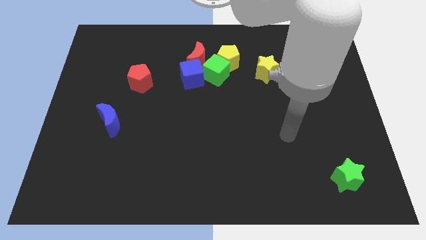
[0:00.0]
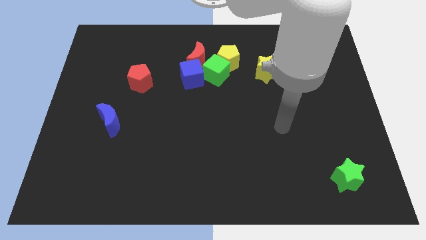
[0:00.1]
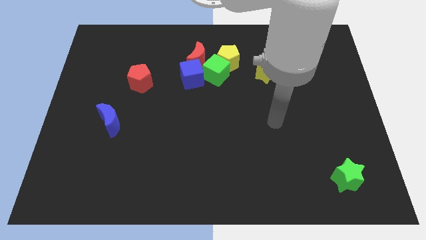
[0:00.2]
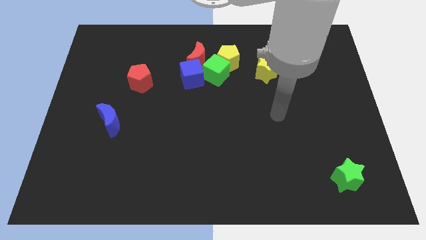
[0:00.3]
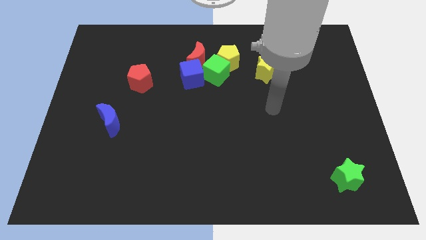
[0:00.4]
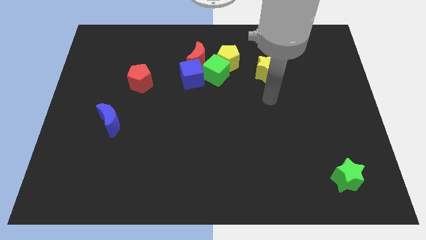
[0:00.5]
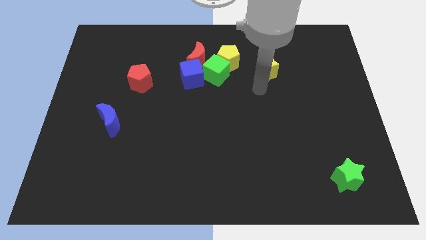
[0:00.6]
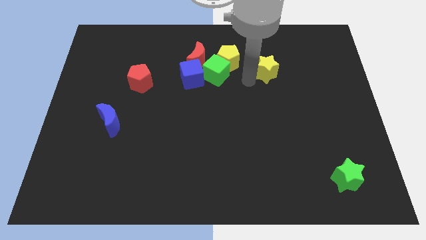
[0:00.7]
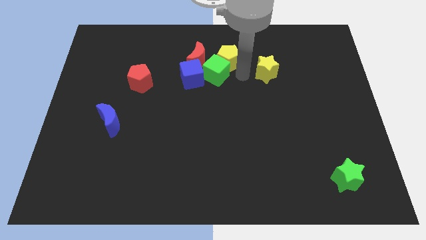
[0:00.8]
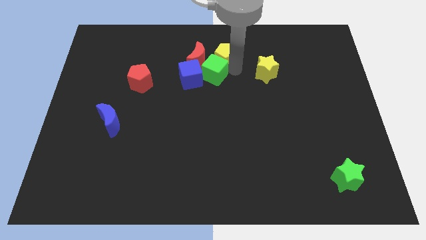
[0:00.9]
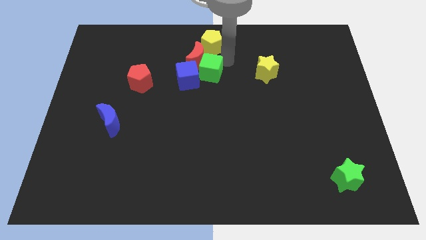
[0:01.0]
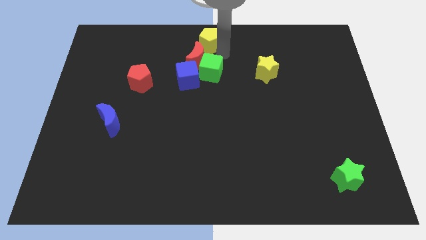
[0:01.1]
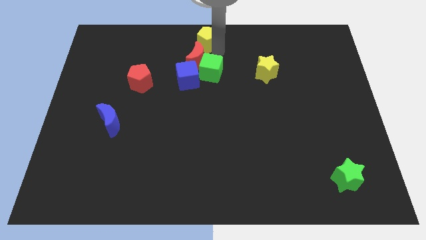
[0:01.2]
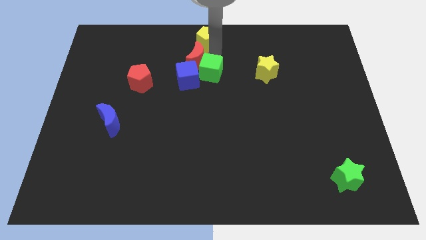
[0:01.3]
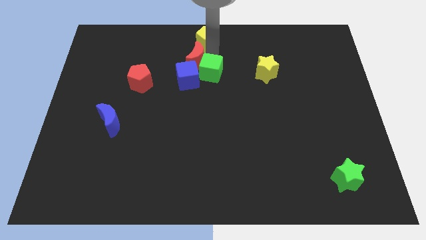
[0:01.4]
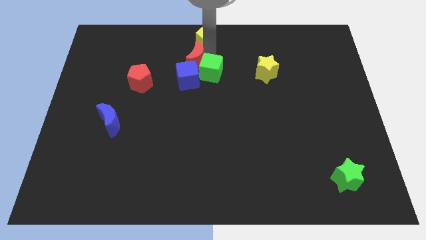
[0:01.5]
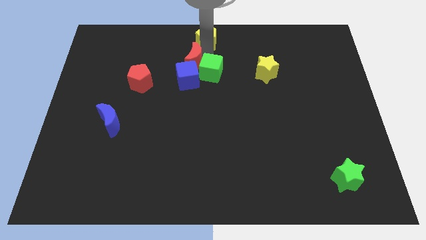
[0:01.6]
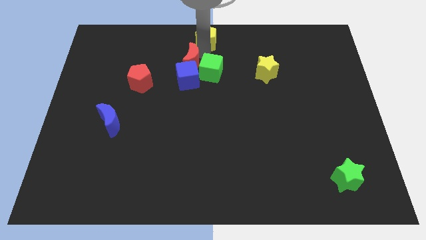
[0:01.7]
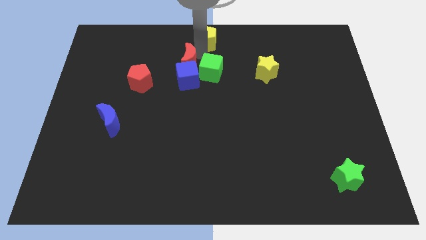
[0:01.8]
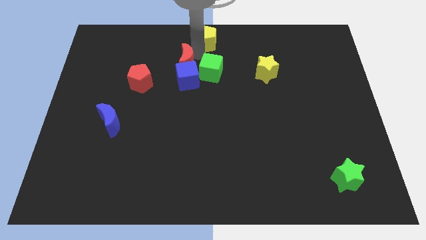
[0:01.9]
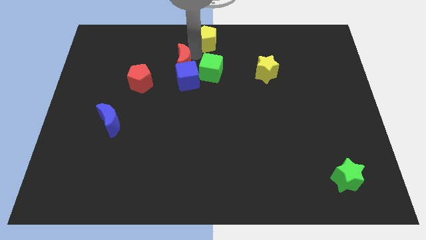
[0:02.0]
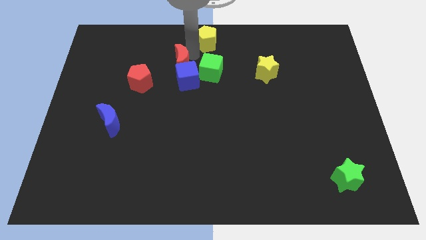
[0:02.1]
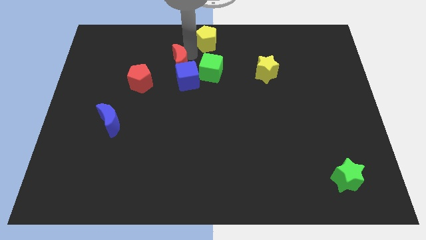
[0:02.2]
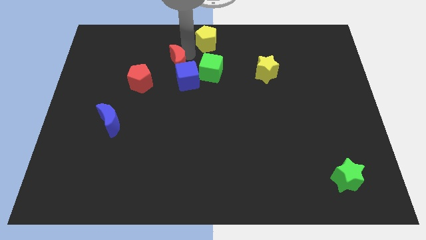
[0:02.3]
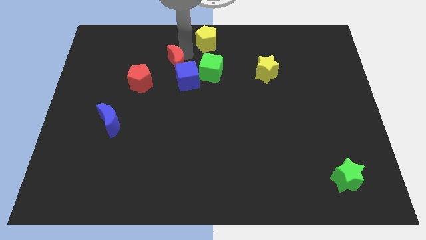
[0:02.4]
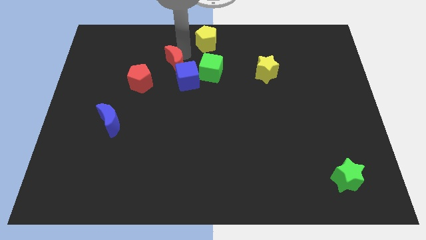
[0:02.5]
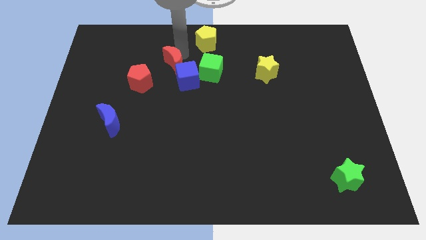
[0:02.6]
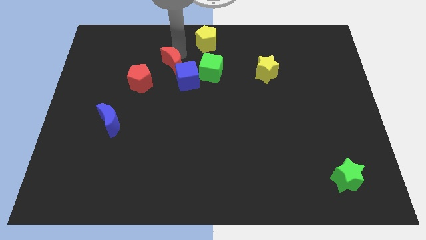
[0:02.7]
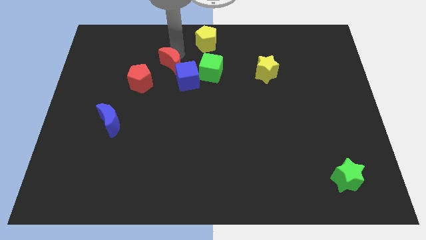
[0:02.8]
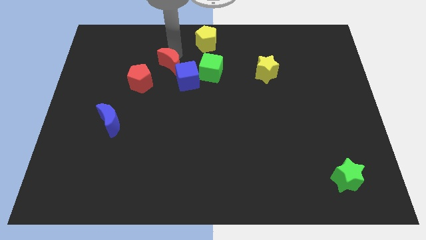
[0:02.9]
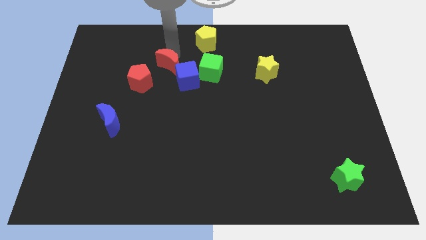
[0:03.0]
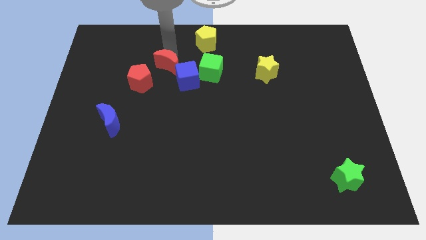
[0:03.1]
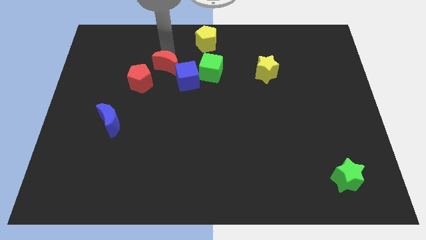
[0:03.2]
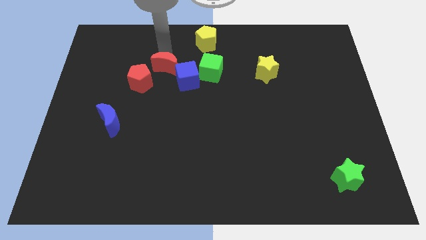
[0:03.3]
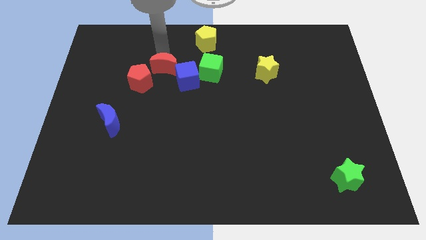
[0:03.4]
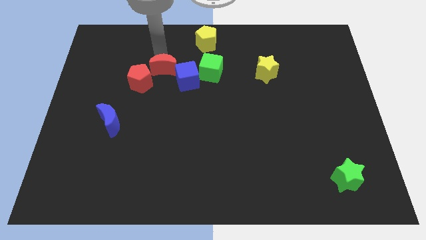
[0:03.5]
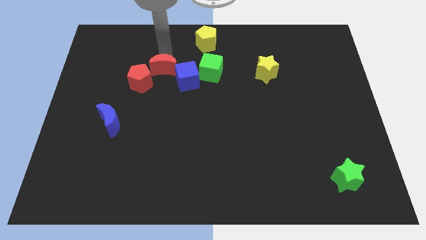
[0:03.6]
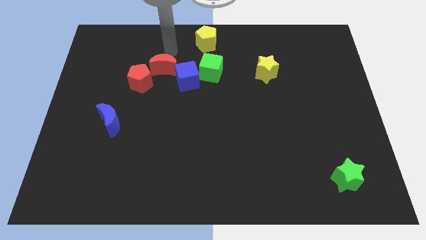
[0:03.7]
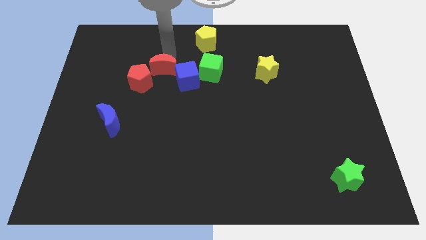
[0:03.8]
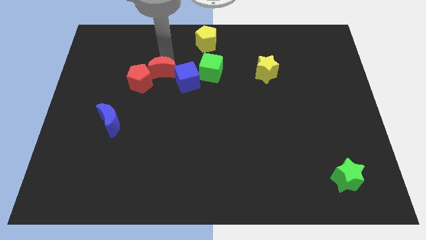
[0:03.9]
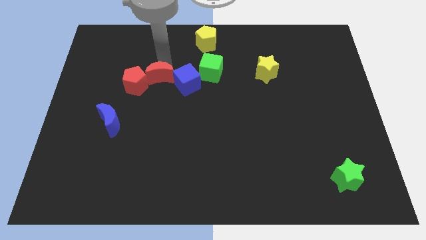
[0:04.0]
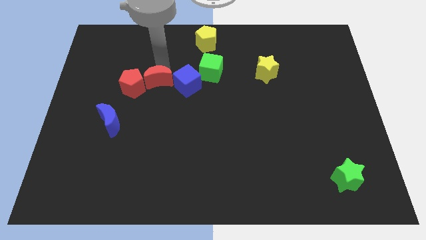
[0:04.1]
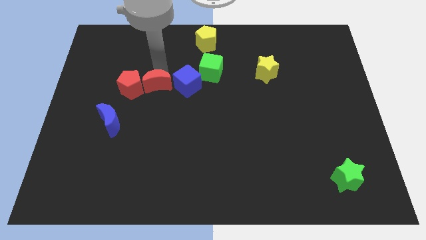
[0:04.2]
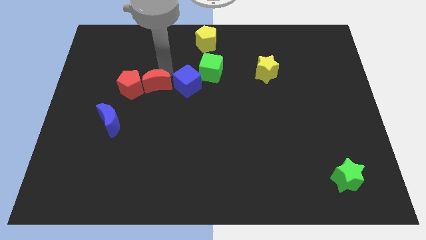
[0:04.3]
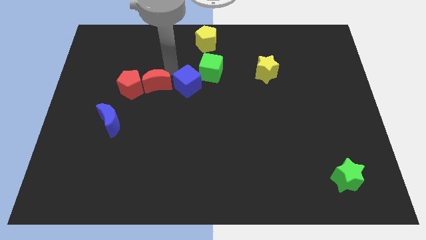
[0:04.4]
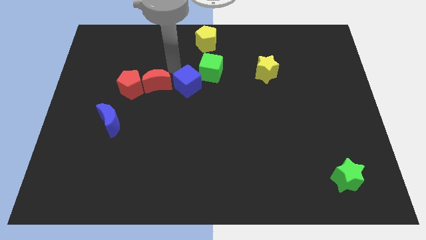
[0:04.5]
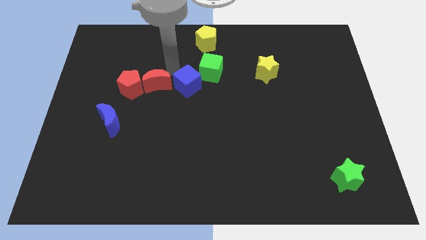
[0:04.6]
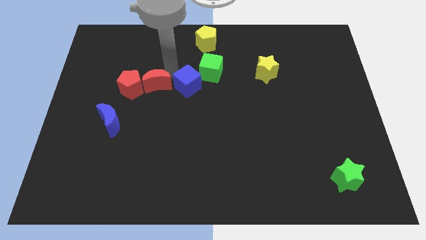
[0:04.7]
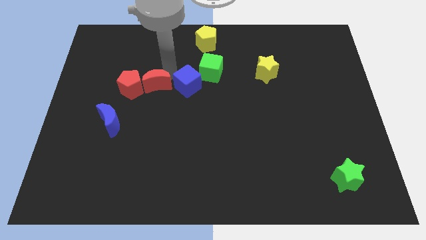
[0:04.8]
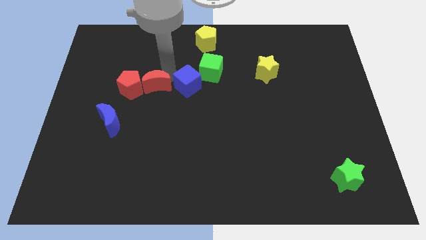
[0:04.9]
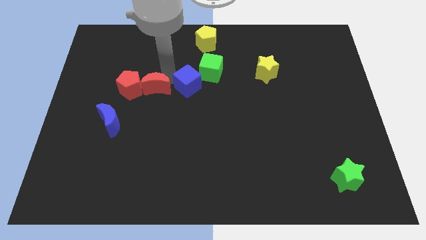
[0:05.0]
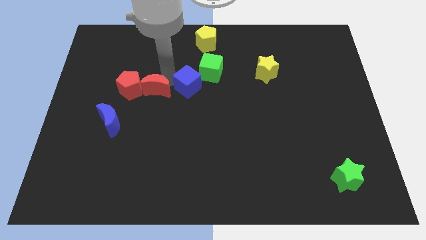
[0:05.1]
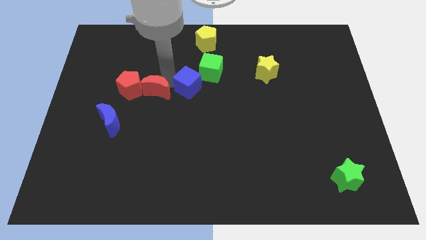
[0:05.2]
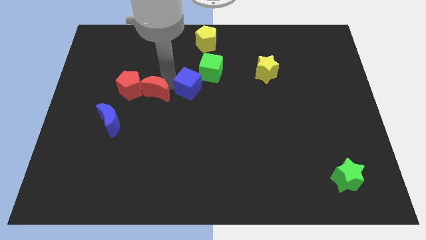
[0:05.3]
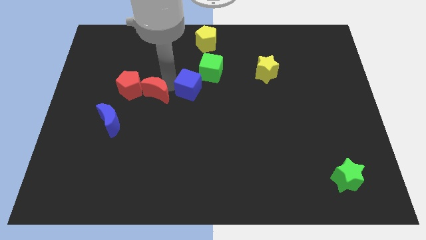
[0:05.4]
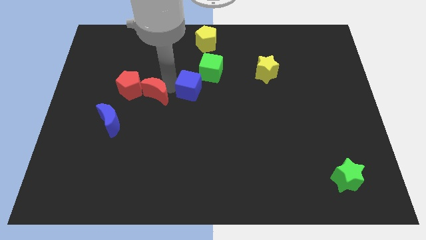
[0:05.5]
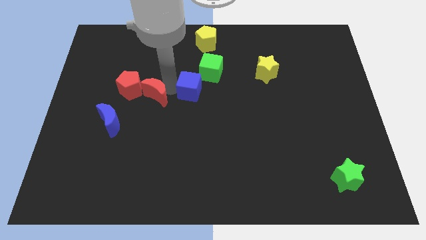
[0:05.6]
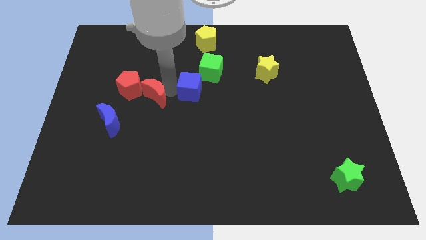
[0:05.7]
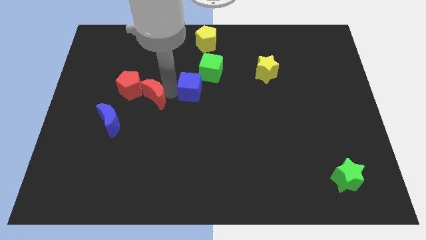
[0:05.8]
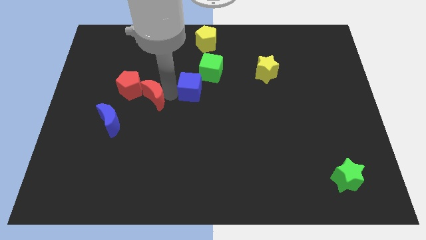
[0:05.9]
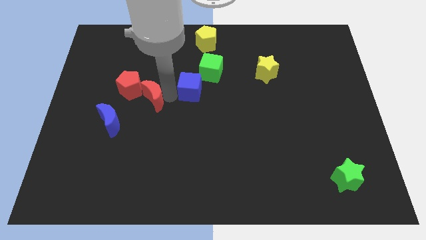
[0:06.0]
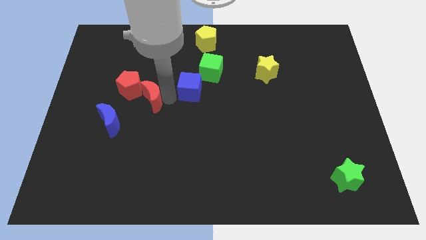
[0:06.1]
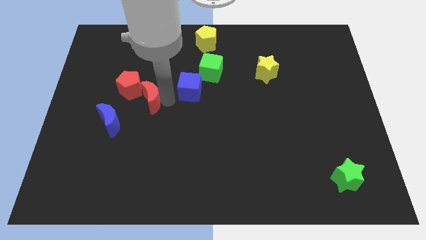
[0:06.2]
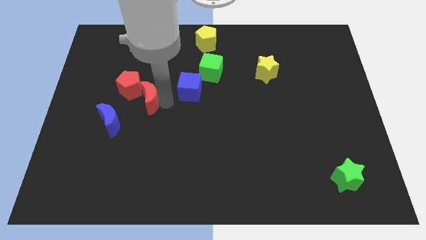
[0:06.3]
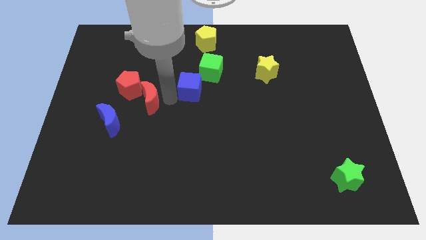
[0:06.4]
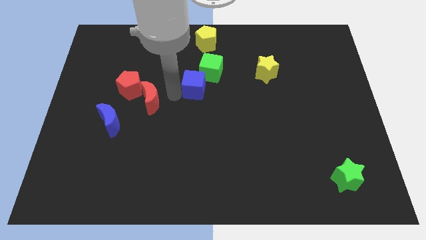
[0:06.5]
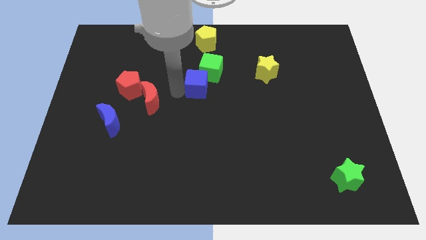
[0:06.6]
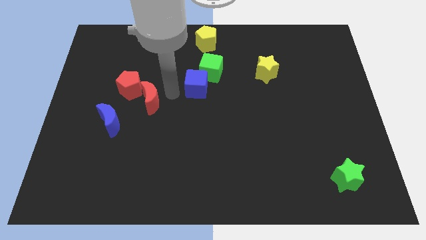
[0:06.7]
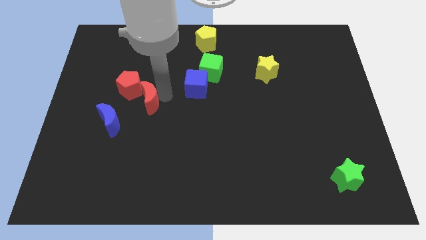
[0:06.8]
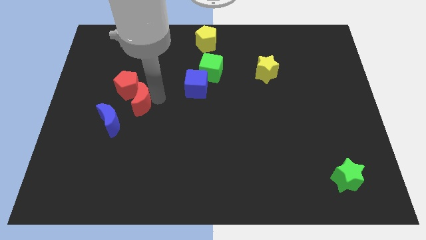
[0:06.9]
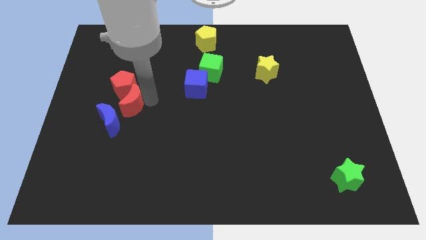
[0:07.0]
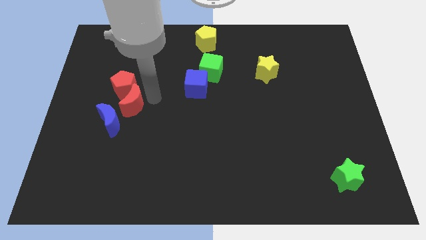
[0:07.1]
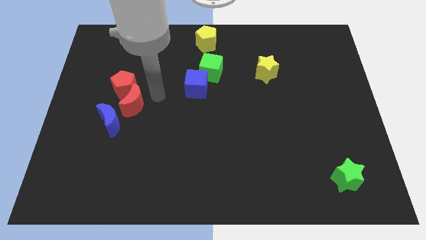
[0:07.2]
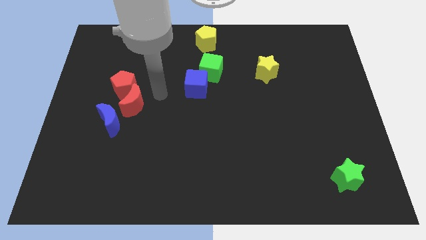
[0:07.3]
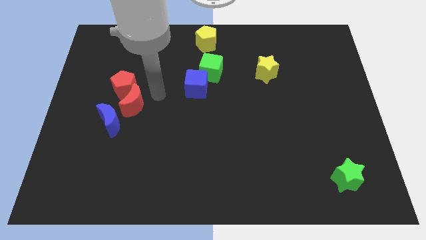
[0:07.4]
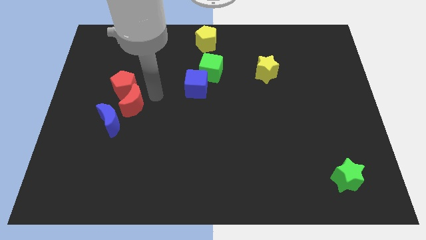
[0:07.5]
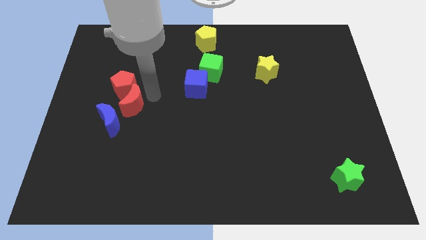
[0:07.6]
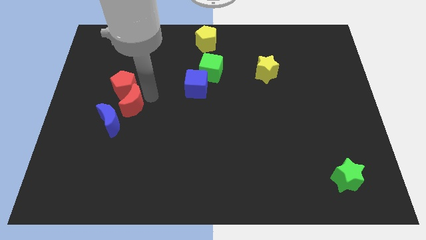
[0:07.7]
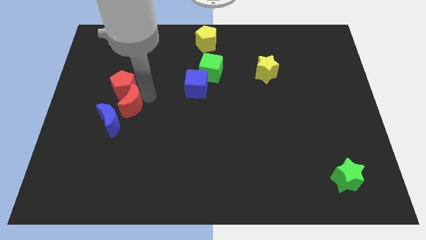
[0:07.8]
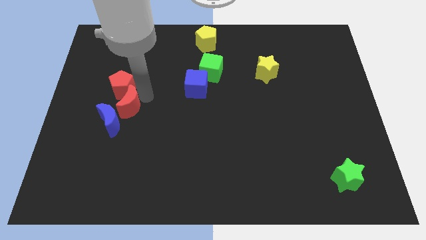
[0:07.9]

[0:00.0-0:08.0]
put the red moon towards the blue moon
